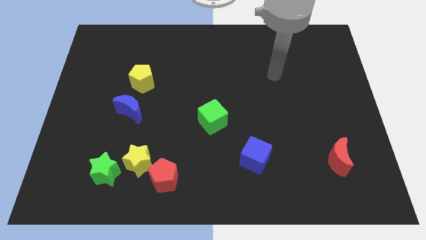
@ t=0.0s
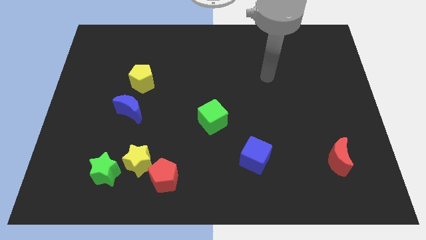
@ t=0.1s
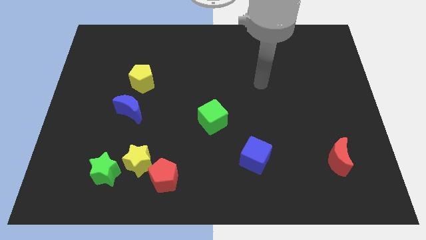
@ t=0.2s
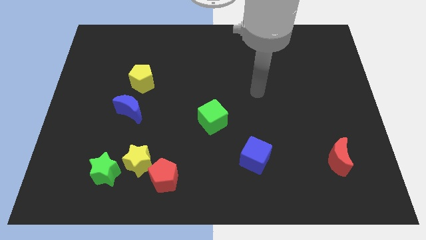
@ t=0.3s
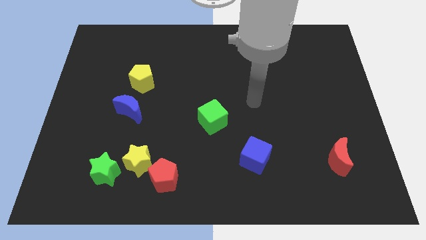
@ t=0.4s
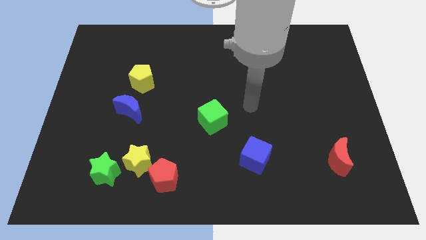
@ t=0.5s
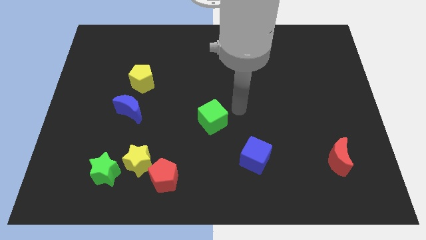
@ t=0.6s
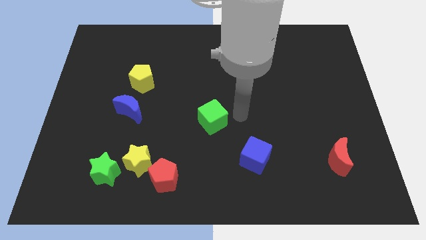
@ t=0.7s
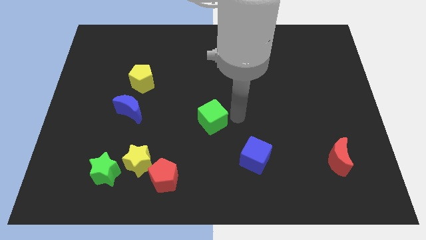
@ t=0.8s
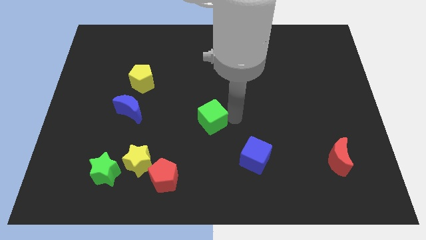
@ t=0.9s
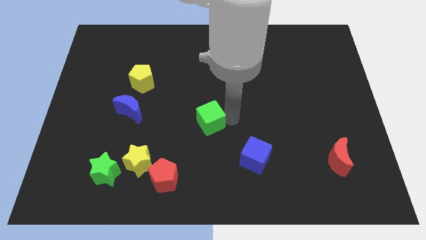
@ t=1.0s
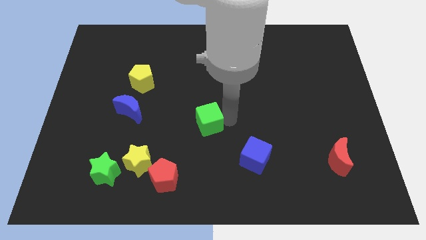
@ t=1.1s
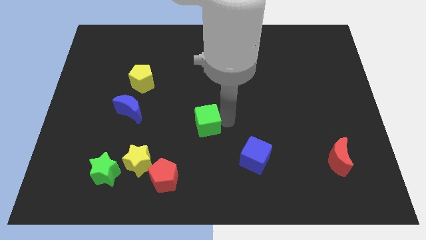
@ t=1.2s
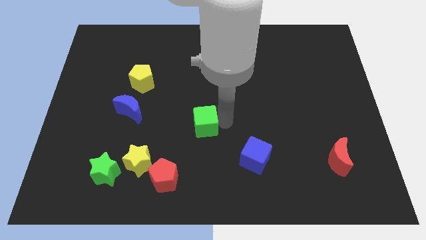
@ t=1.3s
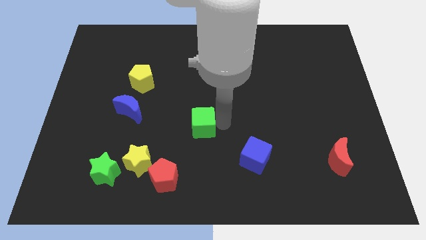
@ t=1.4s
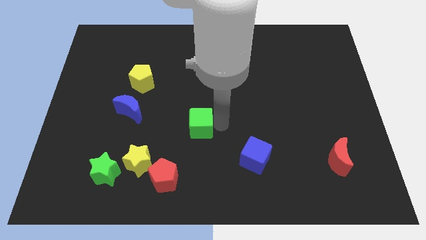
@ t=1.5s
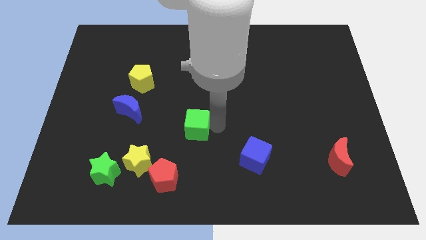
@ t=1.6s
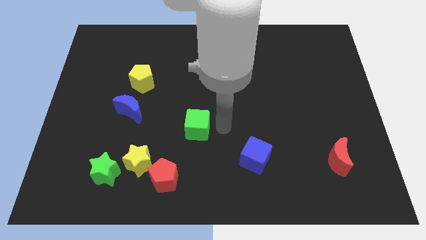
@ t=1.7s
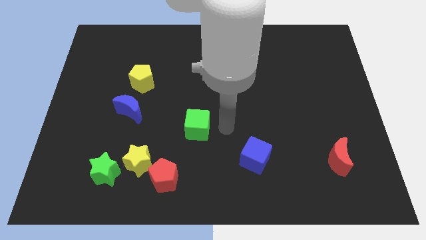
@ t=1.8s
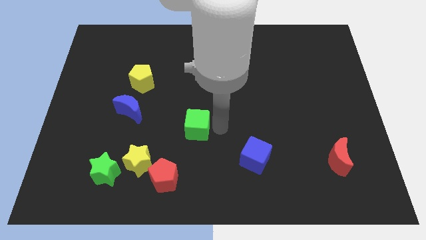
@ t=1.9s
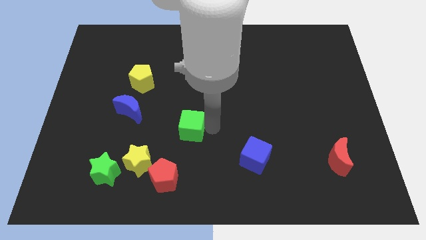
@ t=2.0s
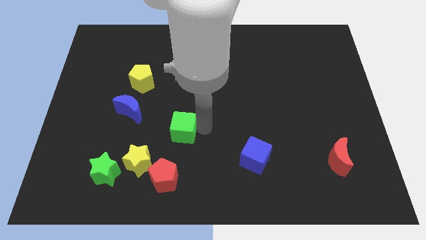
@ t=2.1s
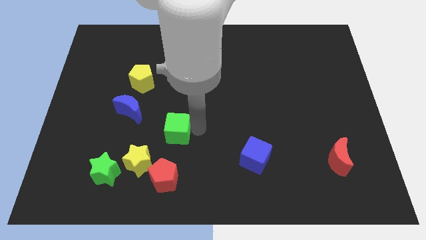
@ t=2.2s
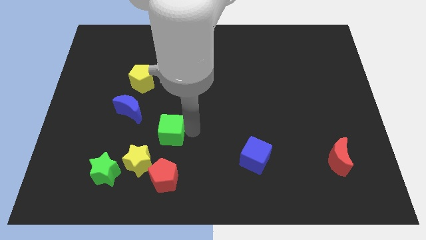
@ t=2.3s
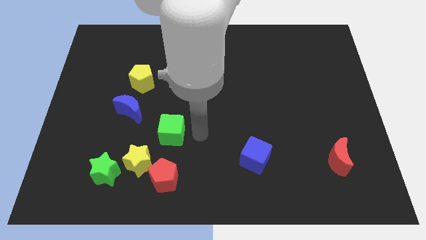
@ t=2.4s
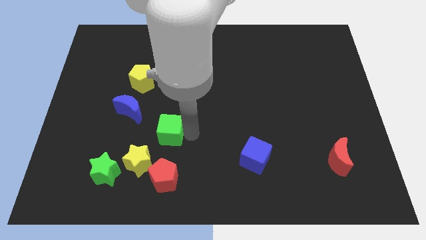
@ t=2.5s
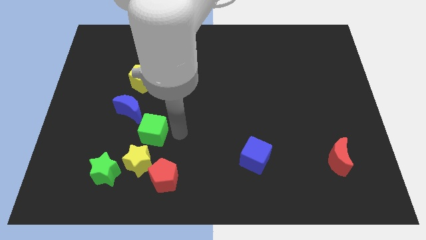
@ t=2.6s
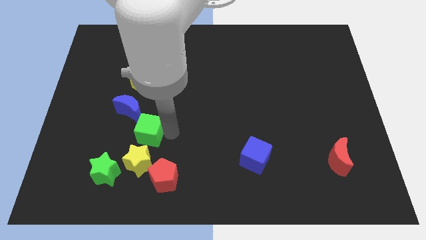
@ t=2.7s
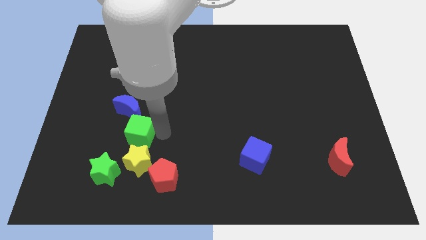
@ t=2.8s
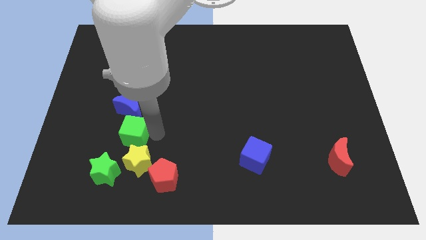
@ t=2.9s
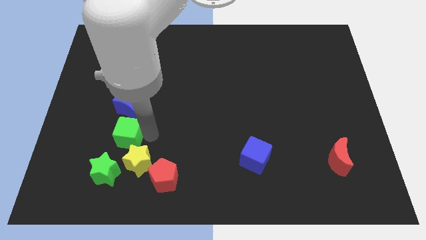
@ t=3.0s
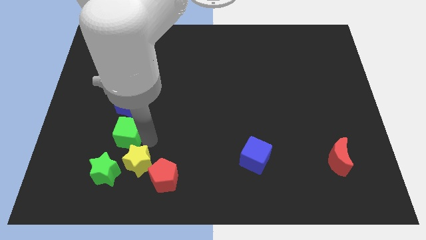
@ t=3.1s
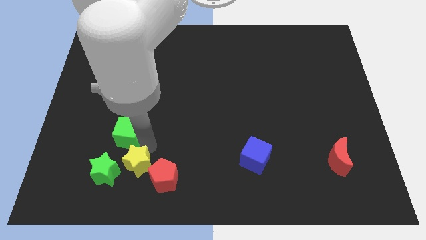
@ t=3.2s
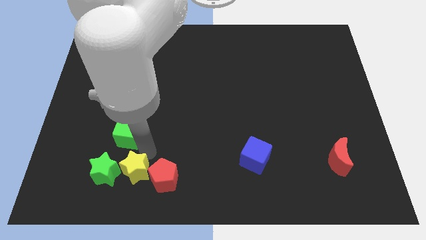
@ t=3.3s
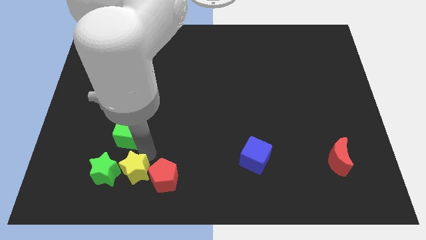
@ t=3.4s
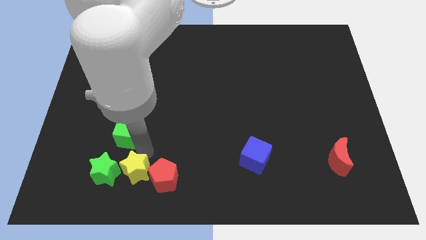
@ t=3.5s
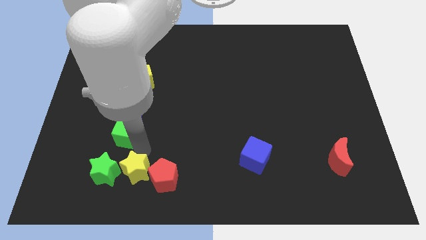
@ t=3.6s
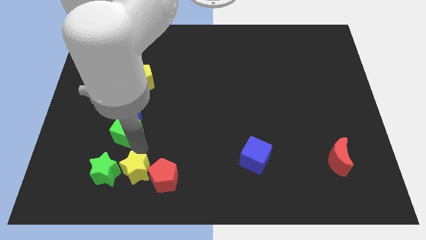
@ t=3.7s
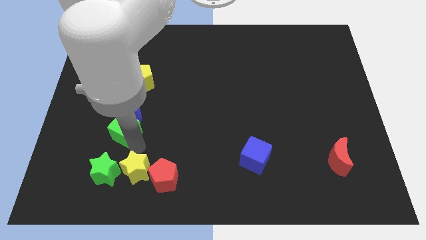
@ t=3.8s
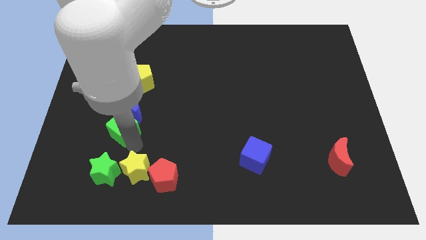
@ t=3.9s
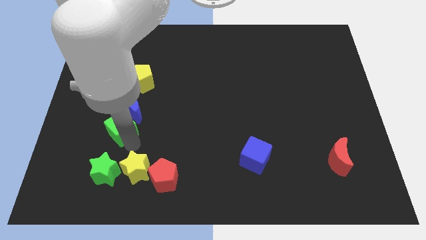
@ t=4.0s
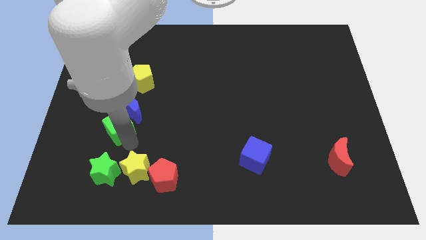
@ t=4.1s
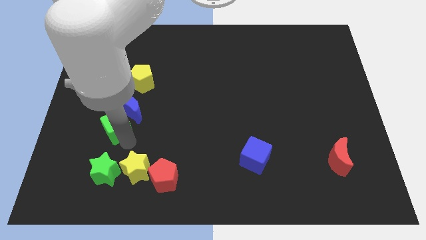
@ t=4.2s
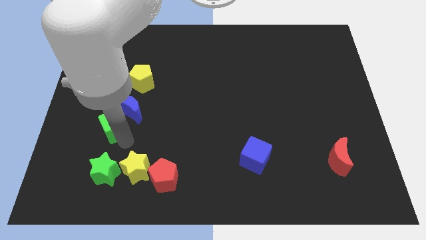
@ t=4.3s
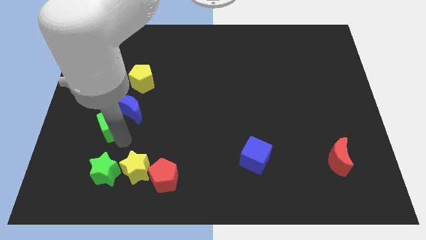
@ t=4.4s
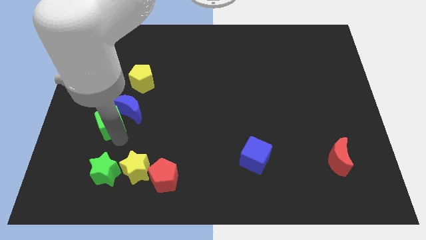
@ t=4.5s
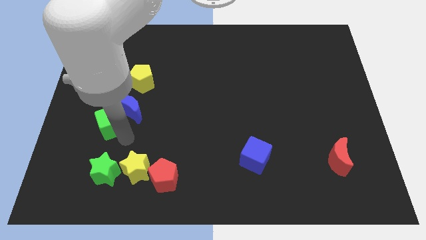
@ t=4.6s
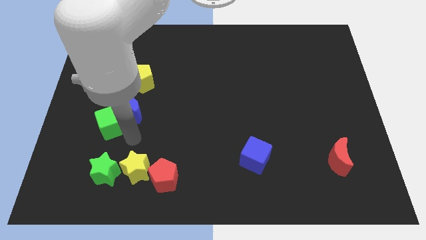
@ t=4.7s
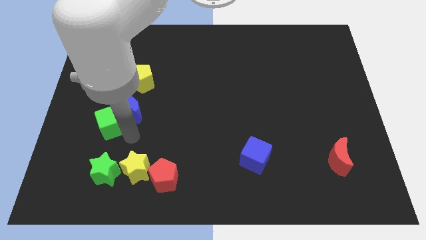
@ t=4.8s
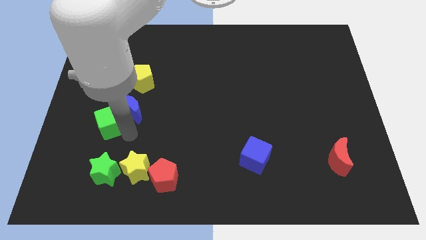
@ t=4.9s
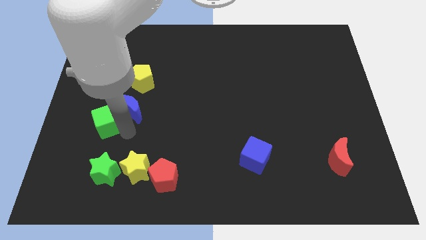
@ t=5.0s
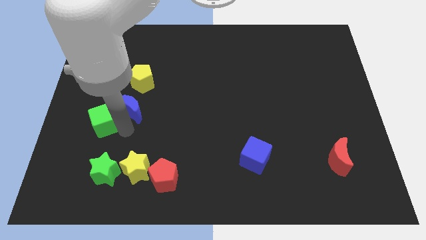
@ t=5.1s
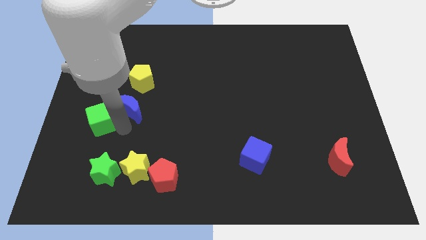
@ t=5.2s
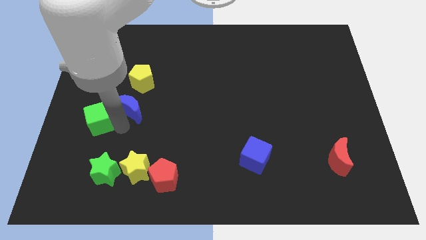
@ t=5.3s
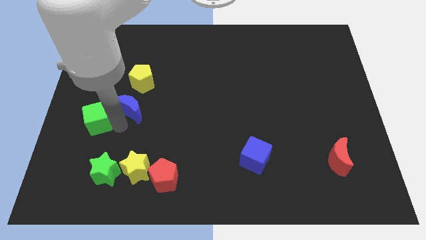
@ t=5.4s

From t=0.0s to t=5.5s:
slide the green cube to the center left
